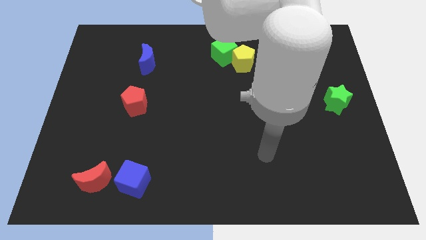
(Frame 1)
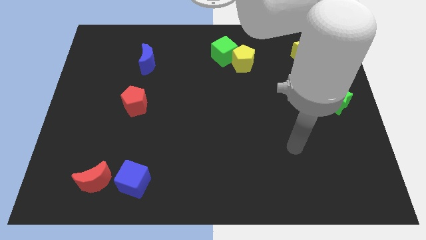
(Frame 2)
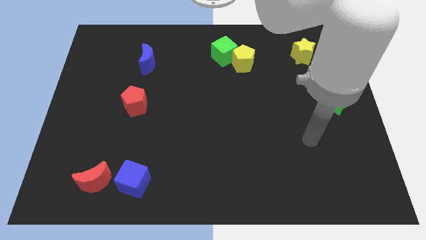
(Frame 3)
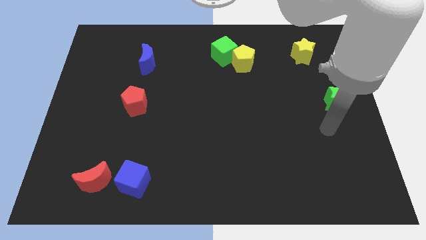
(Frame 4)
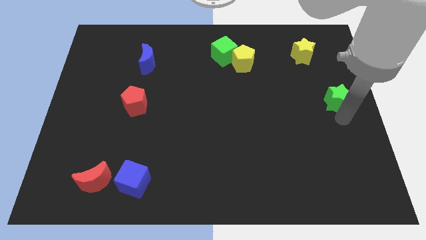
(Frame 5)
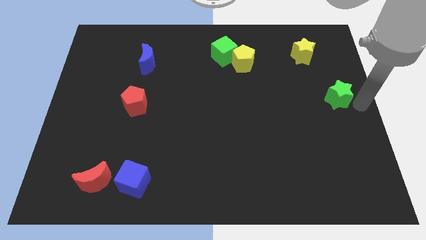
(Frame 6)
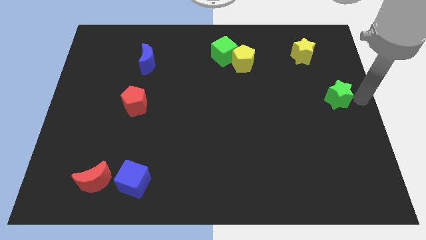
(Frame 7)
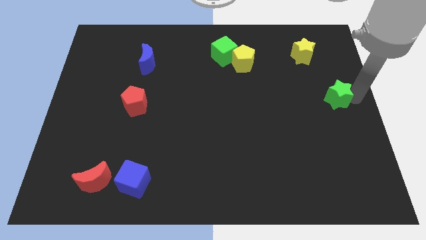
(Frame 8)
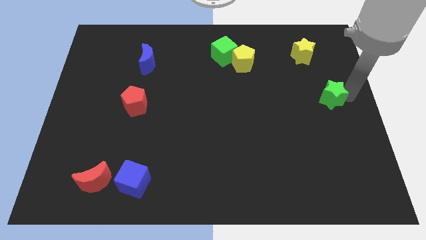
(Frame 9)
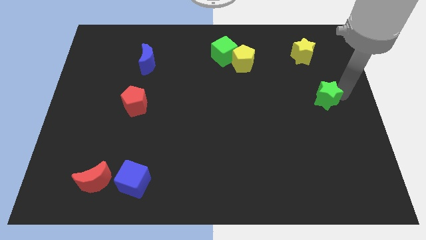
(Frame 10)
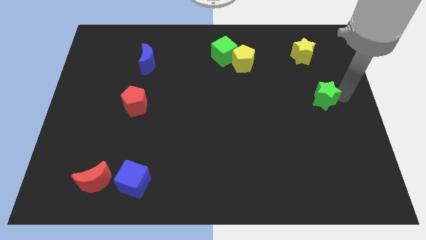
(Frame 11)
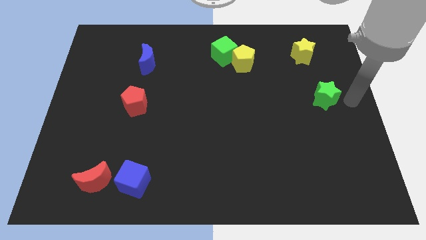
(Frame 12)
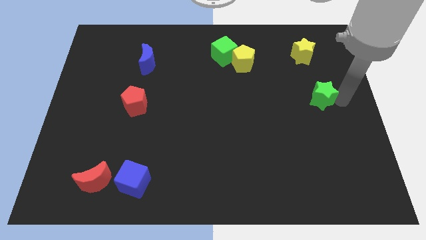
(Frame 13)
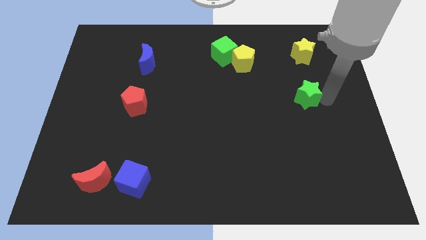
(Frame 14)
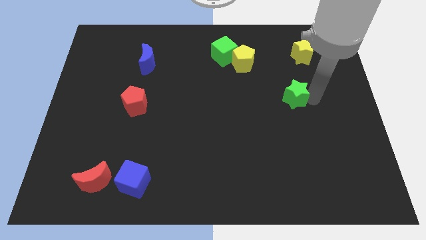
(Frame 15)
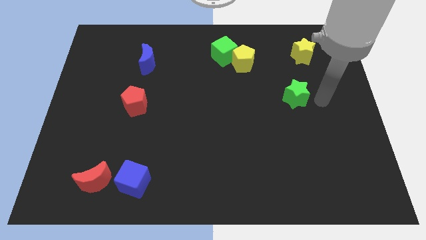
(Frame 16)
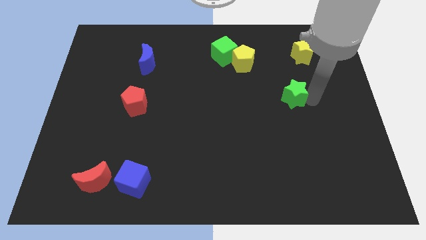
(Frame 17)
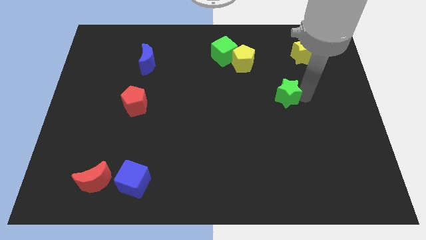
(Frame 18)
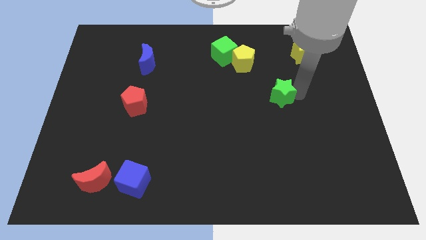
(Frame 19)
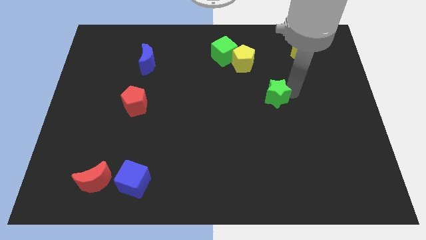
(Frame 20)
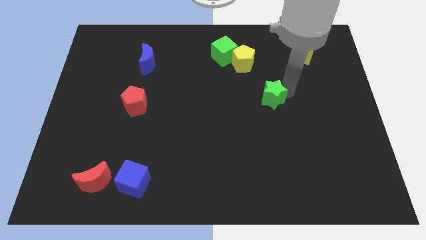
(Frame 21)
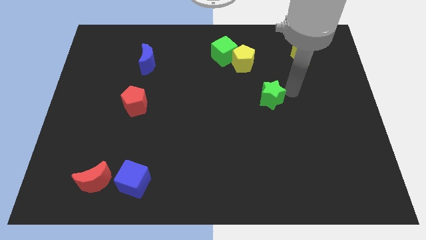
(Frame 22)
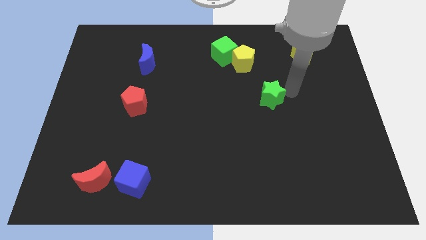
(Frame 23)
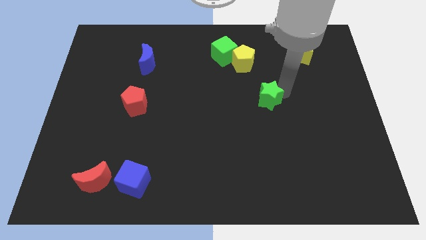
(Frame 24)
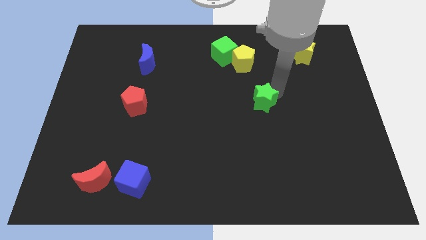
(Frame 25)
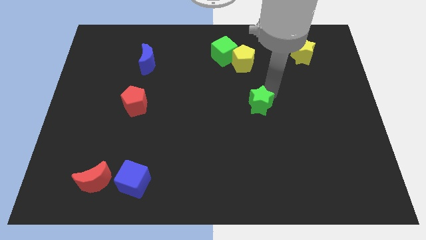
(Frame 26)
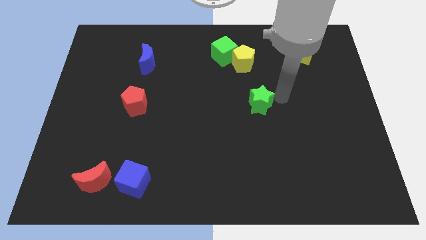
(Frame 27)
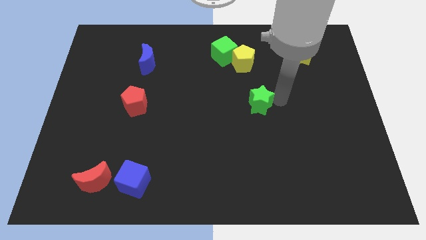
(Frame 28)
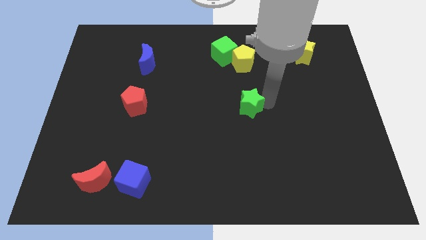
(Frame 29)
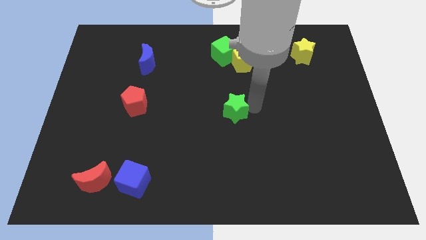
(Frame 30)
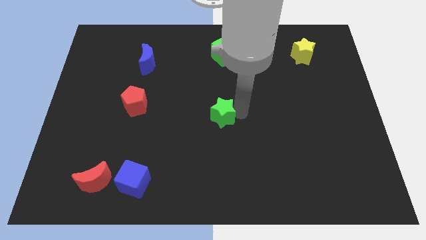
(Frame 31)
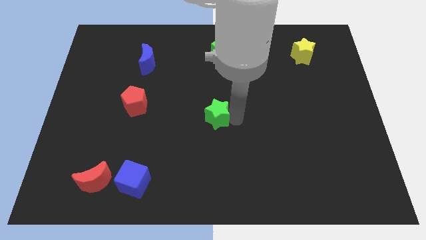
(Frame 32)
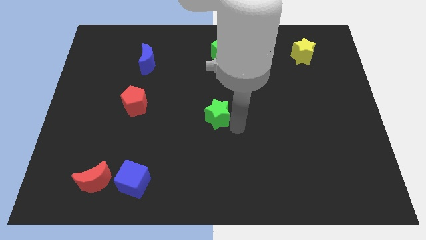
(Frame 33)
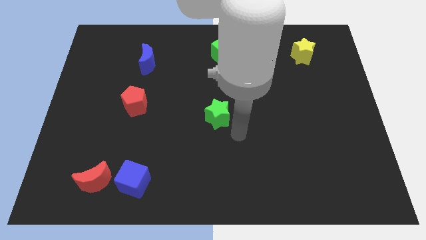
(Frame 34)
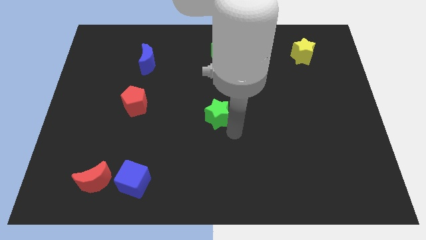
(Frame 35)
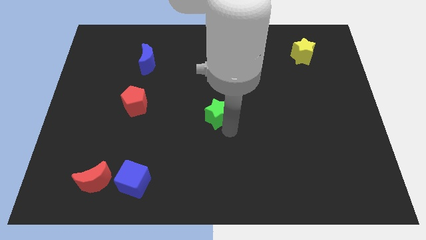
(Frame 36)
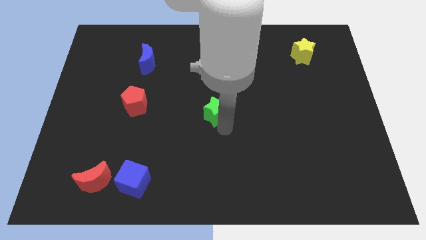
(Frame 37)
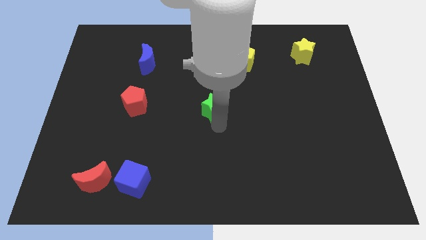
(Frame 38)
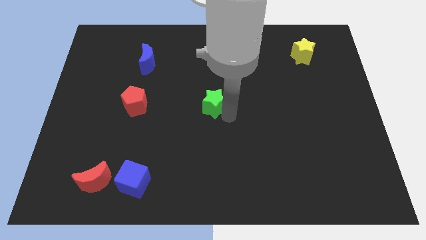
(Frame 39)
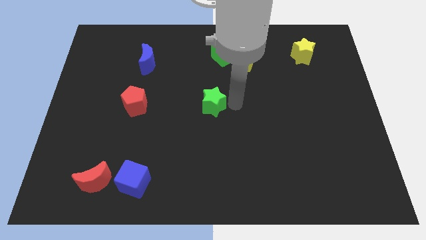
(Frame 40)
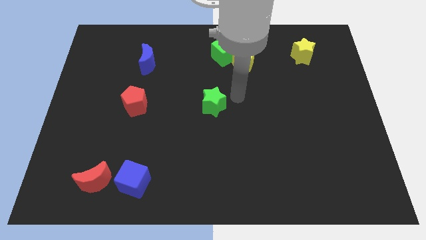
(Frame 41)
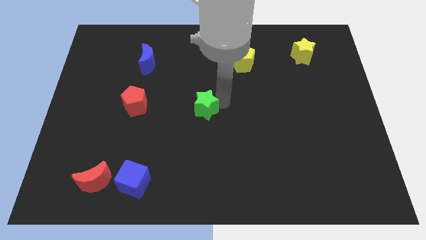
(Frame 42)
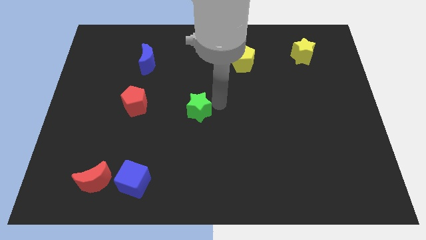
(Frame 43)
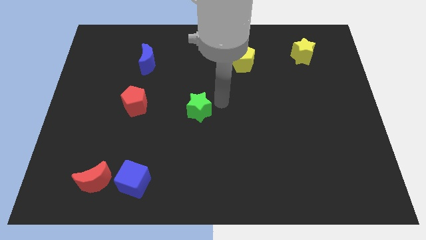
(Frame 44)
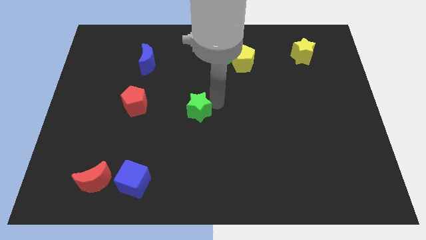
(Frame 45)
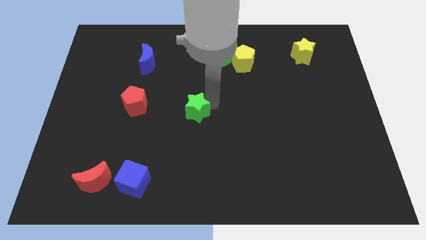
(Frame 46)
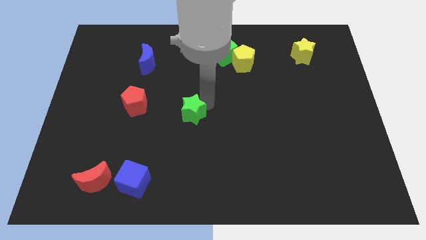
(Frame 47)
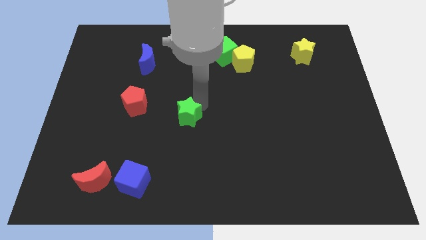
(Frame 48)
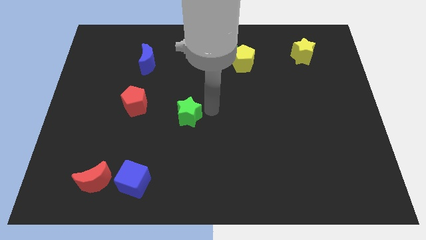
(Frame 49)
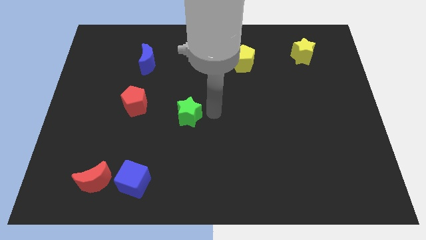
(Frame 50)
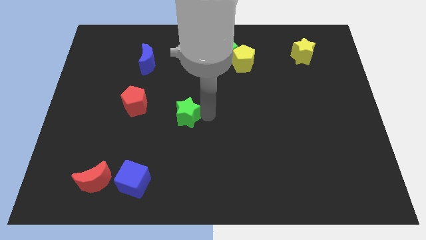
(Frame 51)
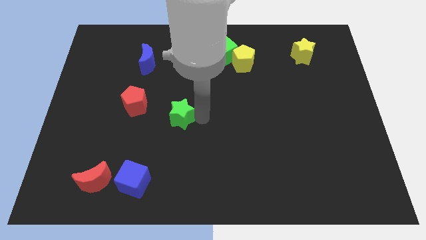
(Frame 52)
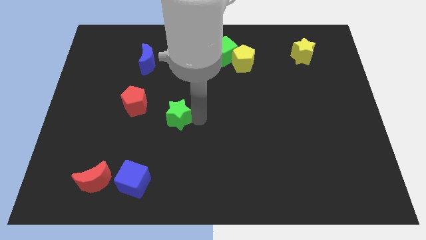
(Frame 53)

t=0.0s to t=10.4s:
put the green star to the bottom right side of the red pentagon

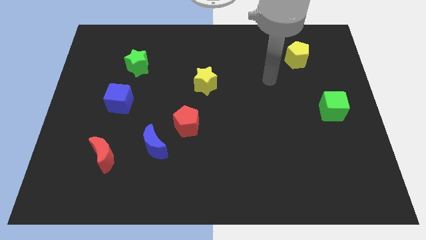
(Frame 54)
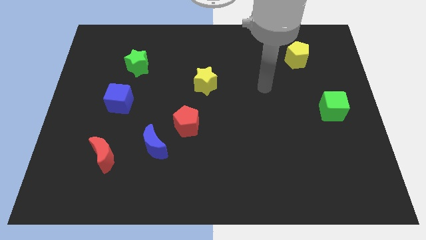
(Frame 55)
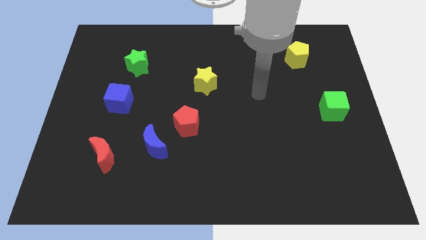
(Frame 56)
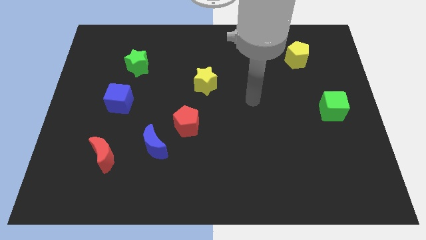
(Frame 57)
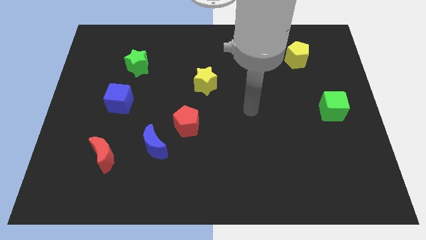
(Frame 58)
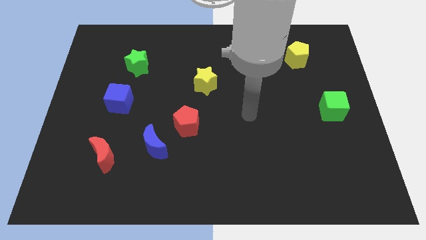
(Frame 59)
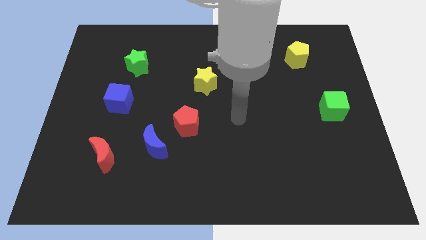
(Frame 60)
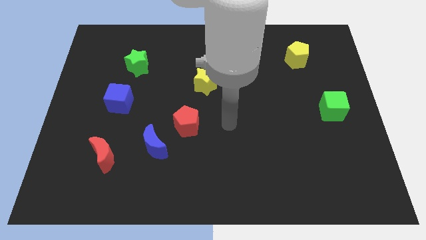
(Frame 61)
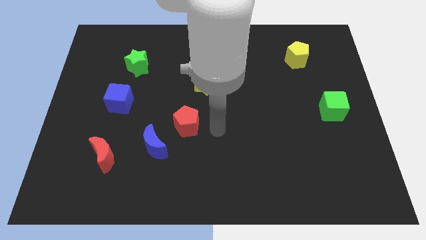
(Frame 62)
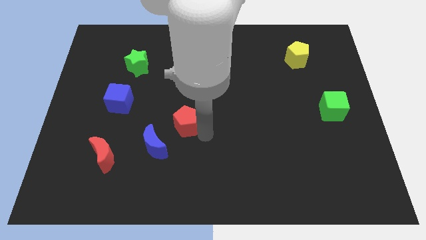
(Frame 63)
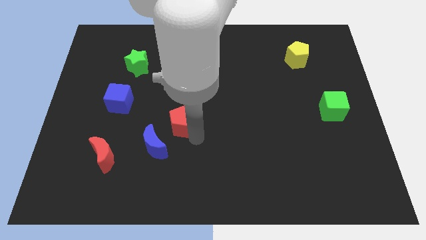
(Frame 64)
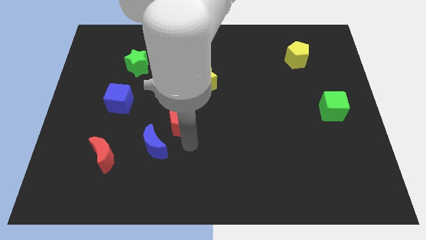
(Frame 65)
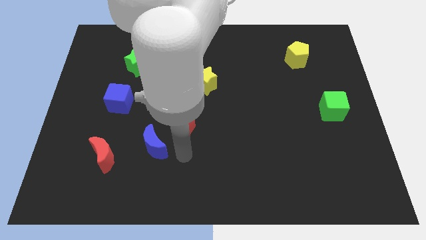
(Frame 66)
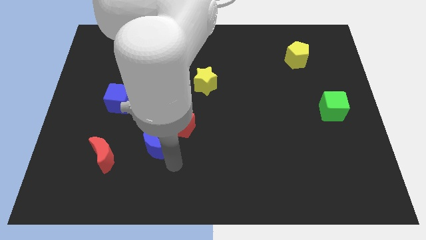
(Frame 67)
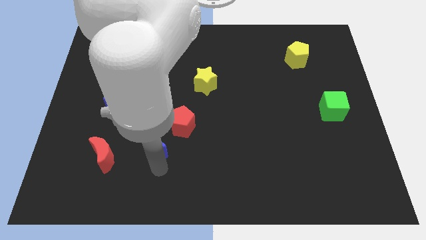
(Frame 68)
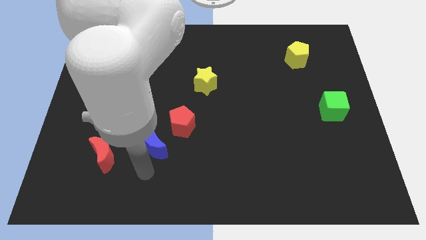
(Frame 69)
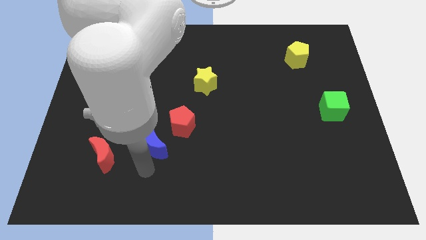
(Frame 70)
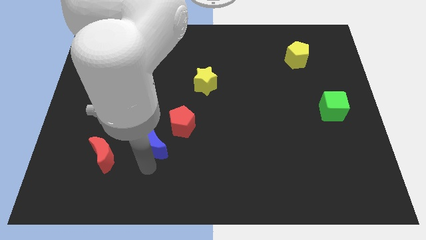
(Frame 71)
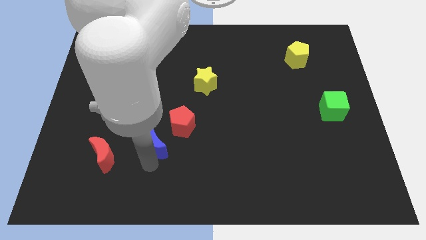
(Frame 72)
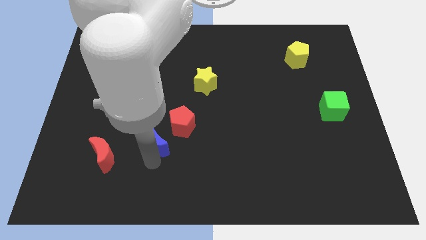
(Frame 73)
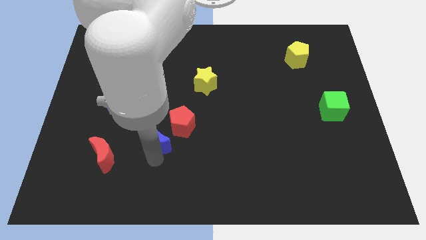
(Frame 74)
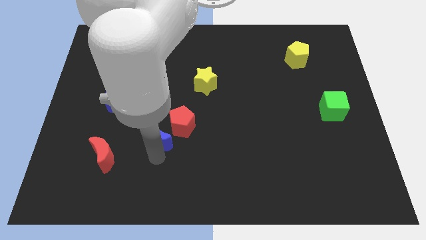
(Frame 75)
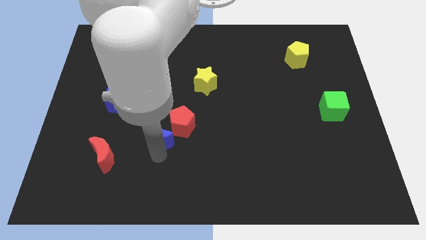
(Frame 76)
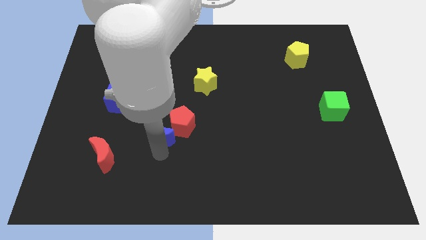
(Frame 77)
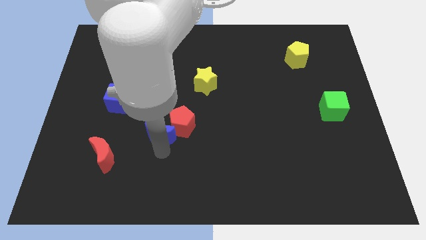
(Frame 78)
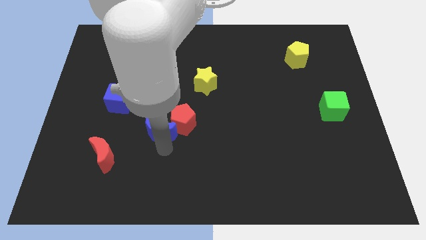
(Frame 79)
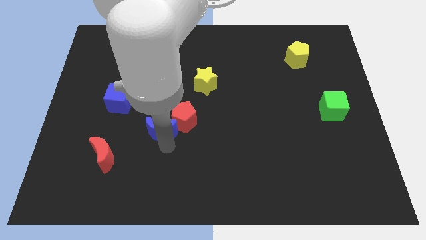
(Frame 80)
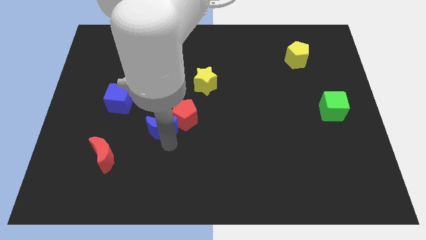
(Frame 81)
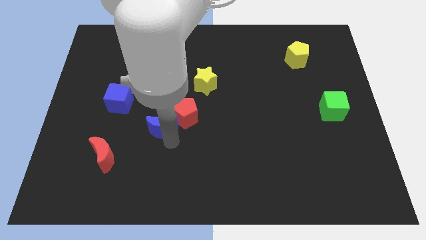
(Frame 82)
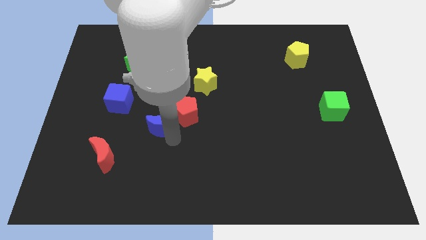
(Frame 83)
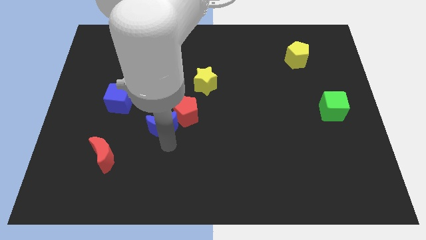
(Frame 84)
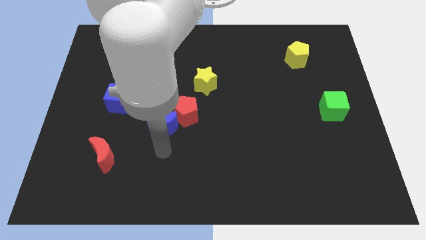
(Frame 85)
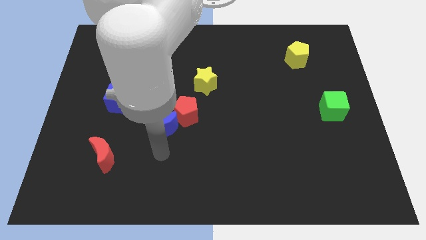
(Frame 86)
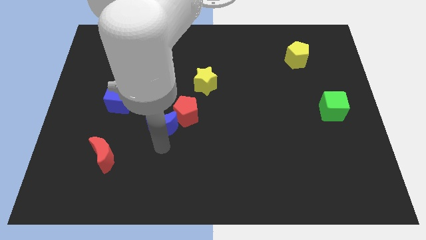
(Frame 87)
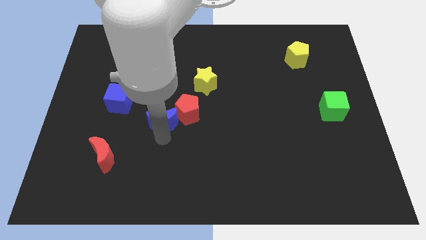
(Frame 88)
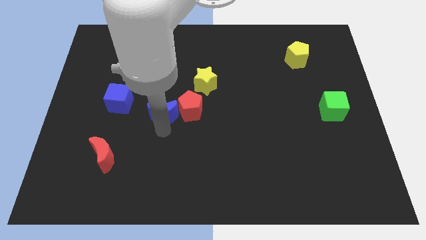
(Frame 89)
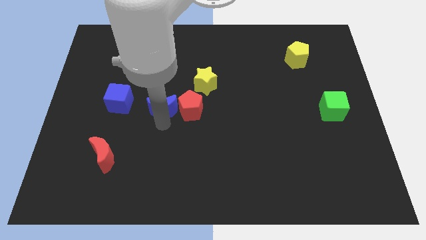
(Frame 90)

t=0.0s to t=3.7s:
move the blue moon to the top left side of the red pentagon

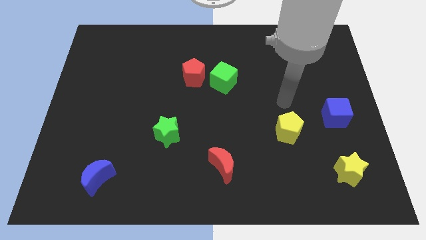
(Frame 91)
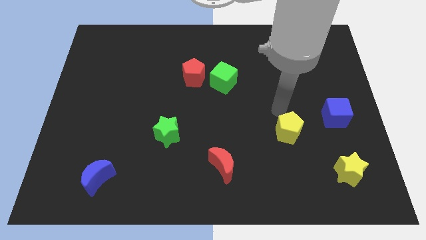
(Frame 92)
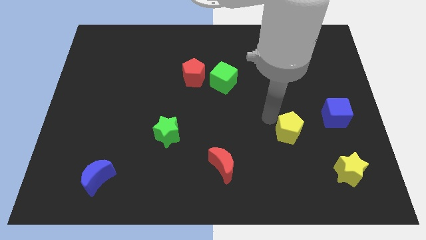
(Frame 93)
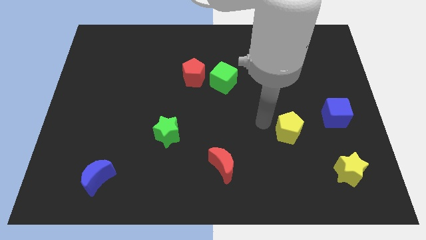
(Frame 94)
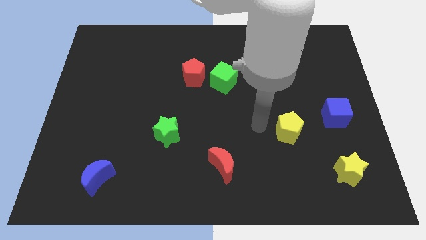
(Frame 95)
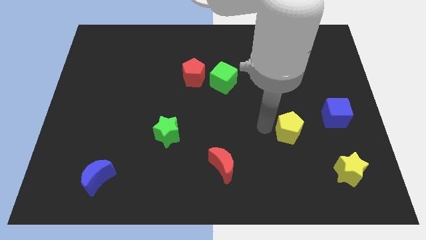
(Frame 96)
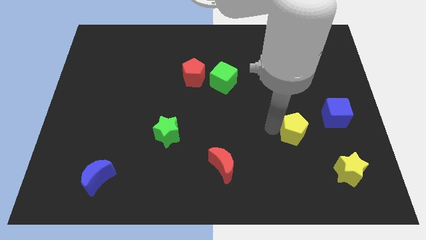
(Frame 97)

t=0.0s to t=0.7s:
slide the yellow pentagon diagonally down and to the left of the blue cube
